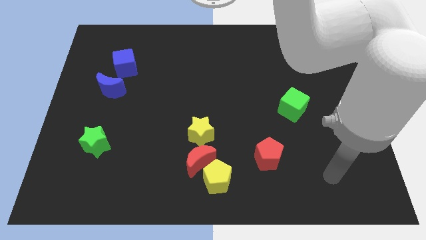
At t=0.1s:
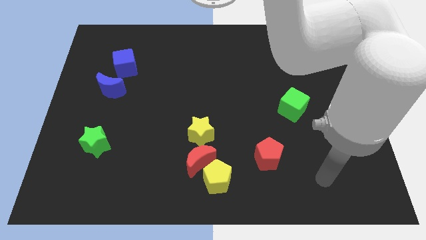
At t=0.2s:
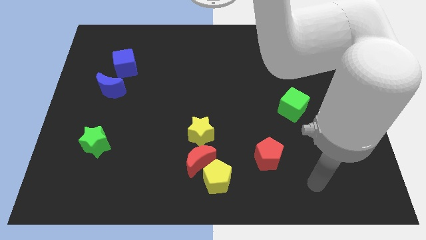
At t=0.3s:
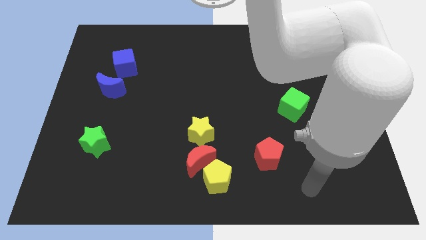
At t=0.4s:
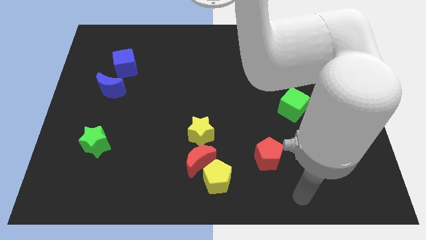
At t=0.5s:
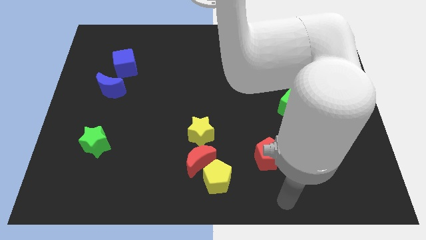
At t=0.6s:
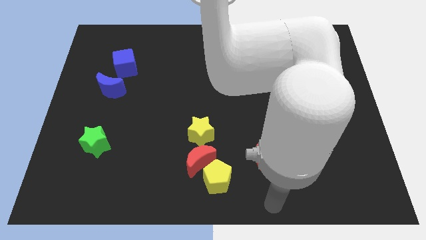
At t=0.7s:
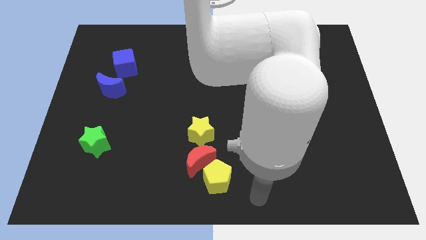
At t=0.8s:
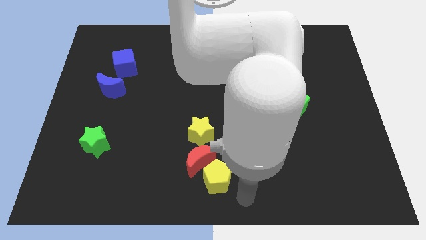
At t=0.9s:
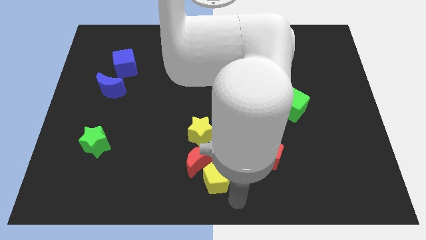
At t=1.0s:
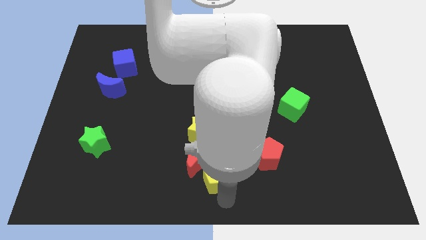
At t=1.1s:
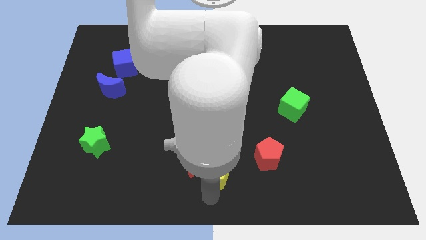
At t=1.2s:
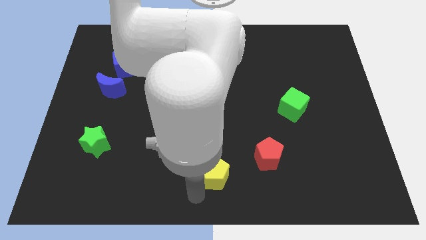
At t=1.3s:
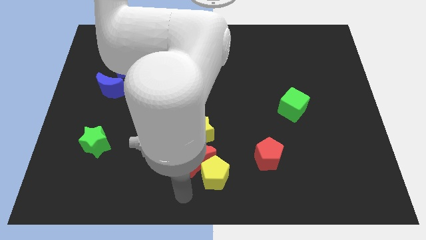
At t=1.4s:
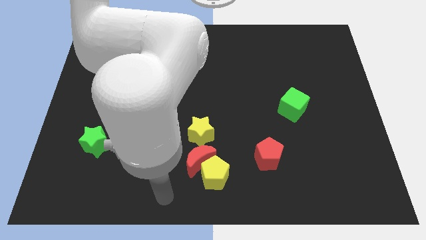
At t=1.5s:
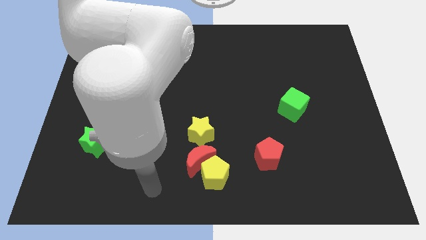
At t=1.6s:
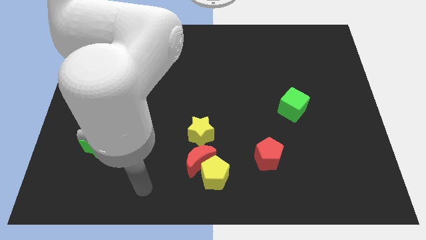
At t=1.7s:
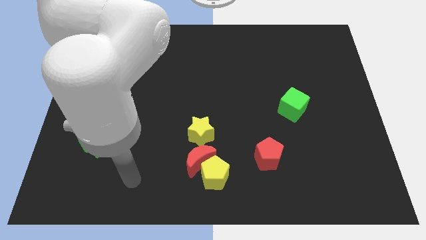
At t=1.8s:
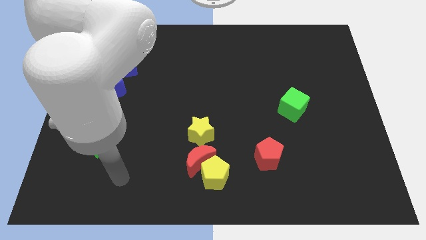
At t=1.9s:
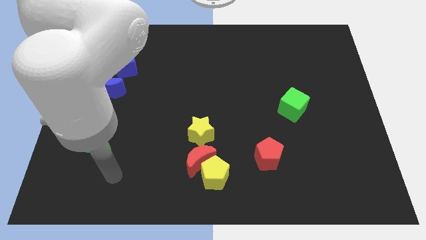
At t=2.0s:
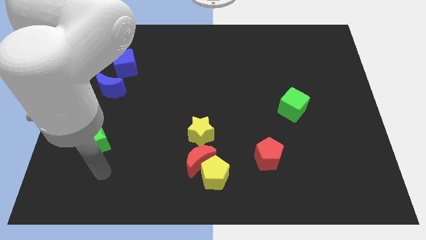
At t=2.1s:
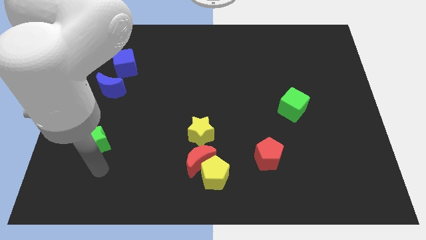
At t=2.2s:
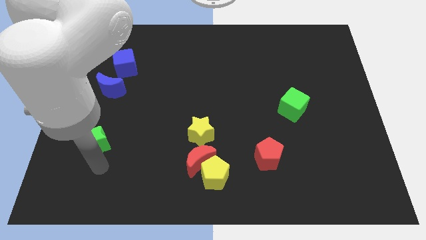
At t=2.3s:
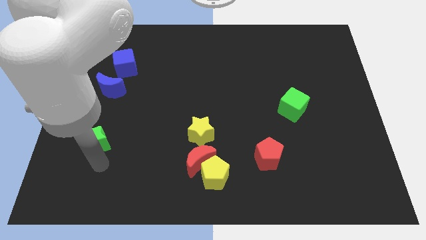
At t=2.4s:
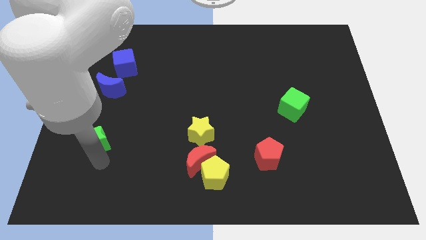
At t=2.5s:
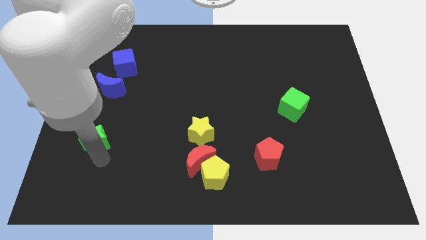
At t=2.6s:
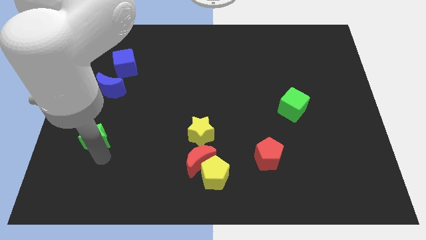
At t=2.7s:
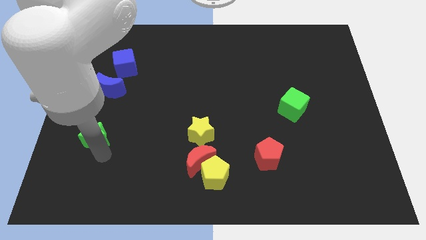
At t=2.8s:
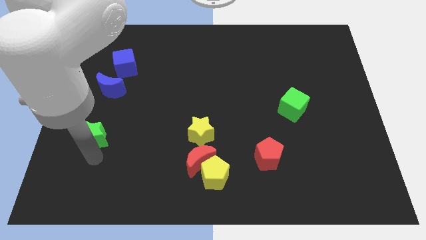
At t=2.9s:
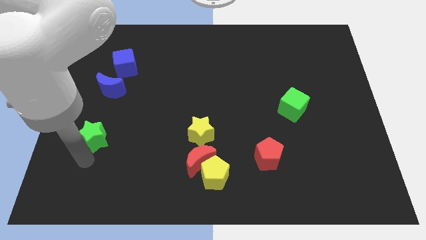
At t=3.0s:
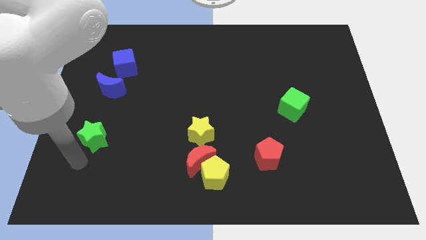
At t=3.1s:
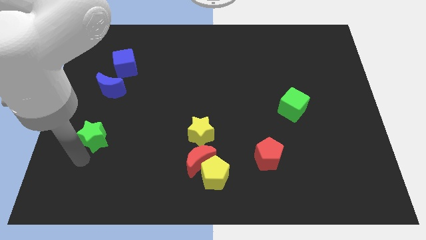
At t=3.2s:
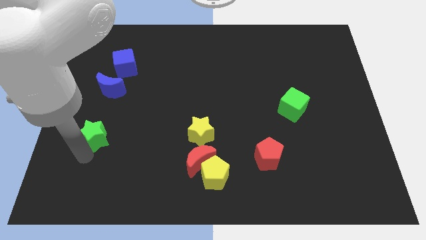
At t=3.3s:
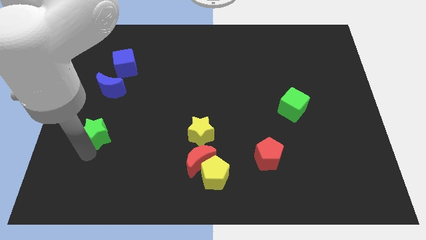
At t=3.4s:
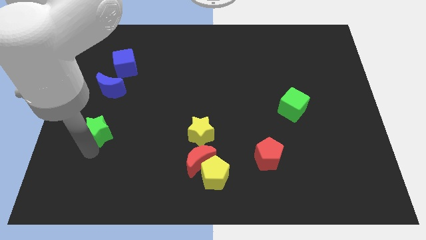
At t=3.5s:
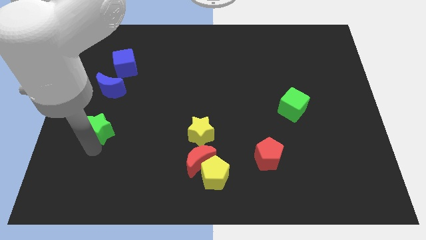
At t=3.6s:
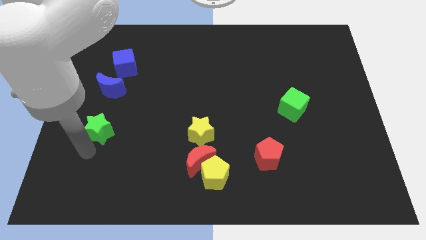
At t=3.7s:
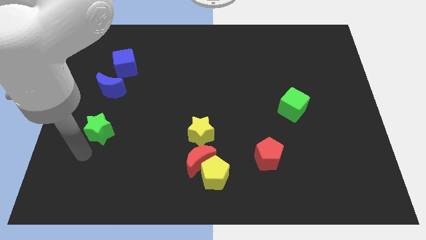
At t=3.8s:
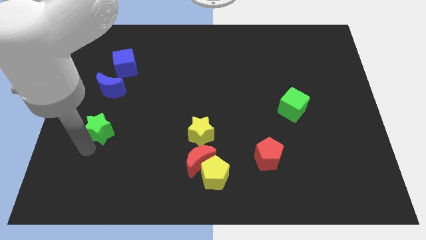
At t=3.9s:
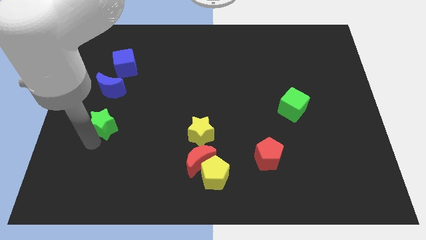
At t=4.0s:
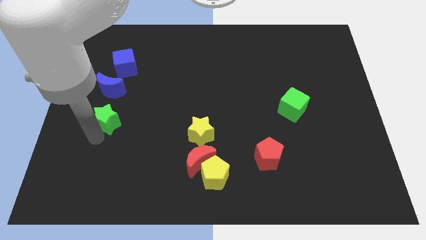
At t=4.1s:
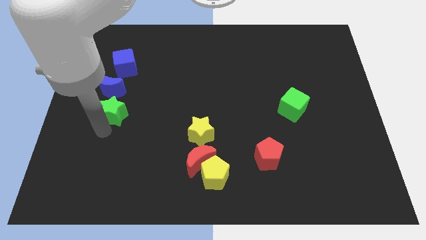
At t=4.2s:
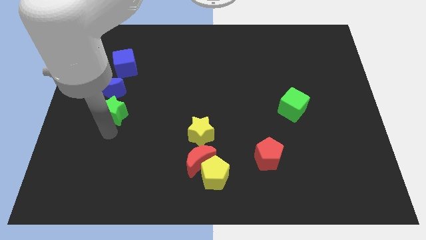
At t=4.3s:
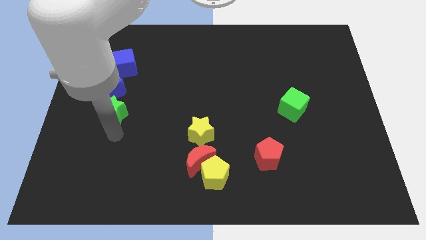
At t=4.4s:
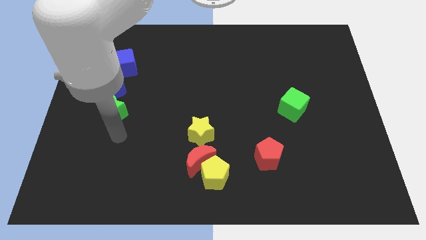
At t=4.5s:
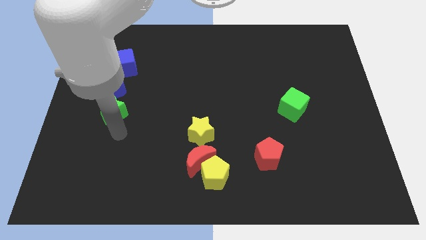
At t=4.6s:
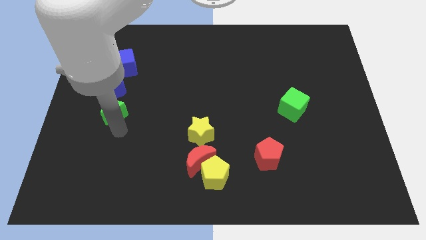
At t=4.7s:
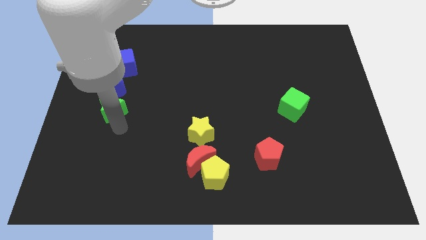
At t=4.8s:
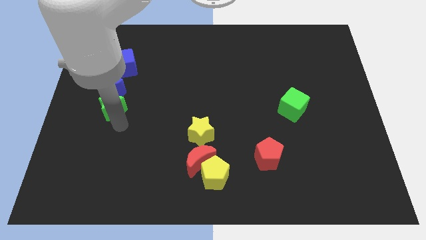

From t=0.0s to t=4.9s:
move the green star next to the blue moon

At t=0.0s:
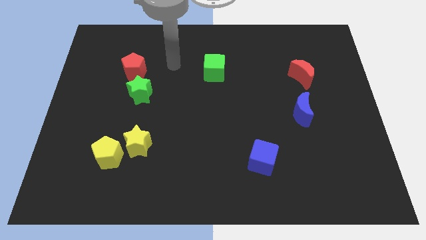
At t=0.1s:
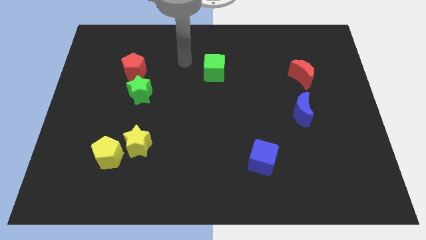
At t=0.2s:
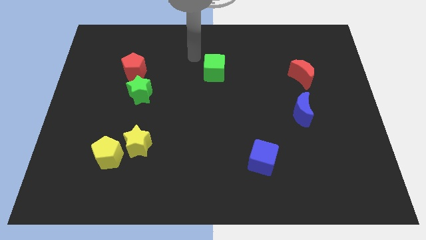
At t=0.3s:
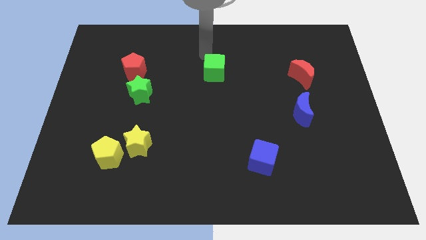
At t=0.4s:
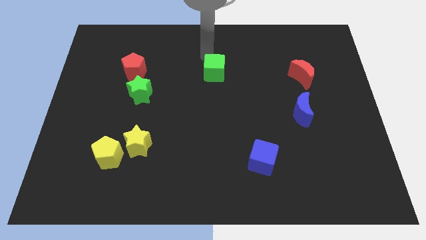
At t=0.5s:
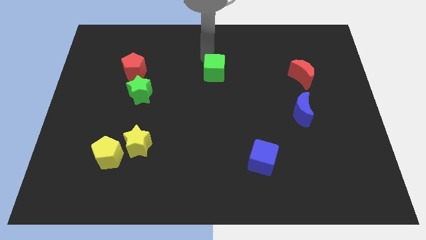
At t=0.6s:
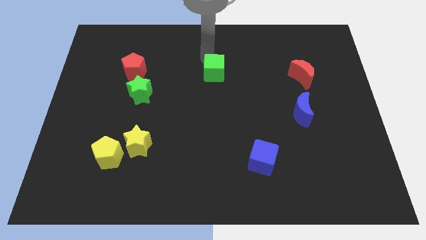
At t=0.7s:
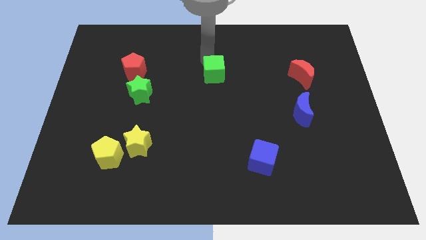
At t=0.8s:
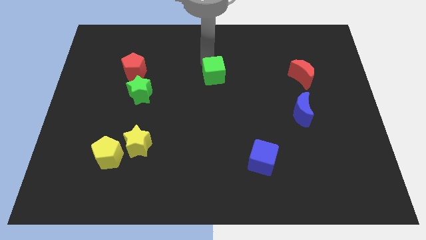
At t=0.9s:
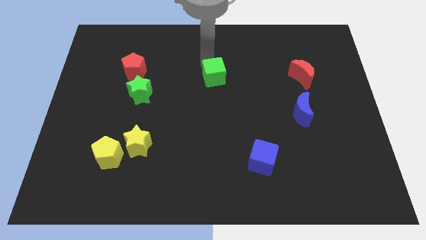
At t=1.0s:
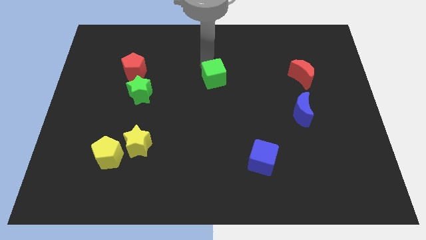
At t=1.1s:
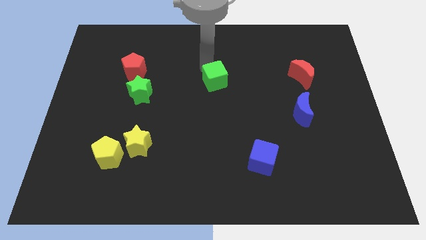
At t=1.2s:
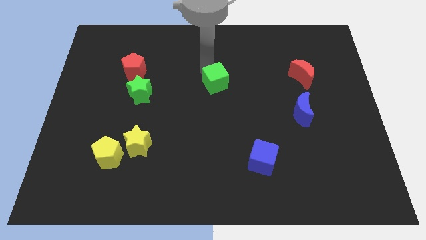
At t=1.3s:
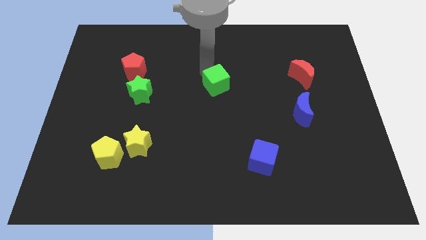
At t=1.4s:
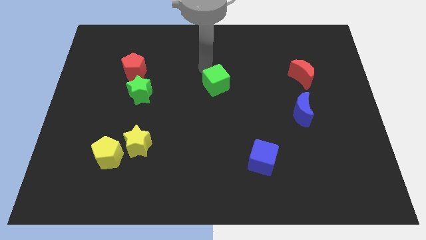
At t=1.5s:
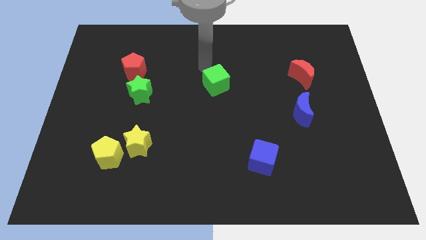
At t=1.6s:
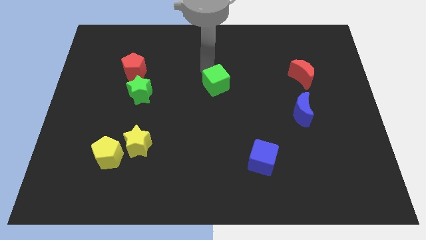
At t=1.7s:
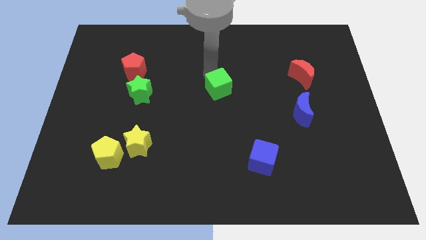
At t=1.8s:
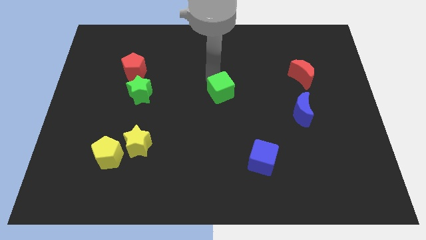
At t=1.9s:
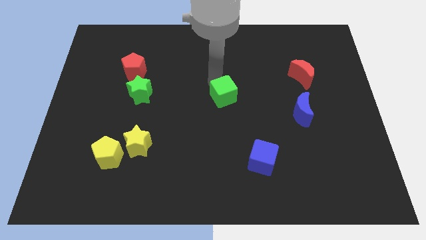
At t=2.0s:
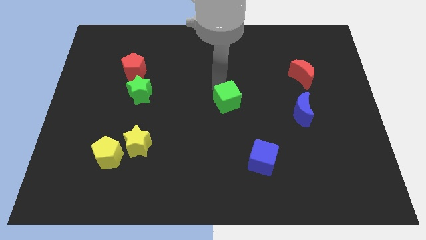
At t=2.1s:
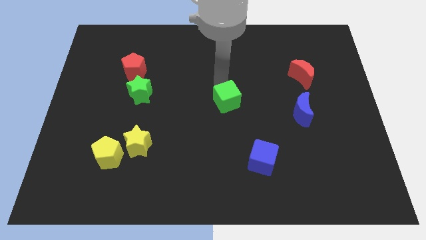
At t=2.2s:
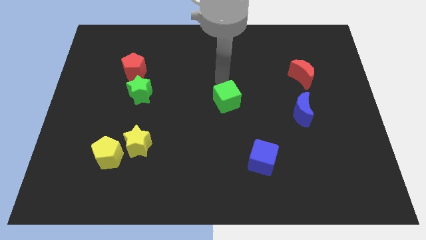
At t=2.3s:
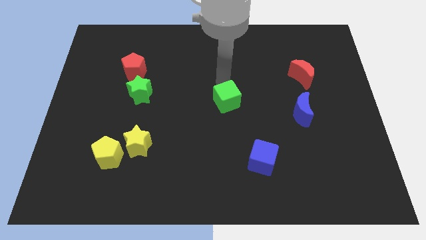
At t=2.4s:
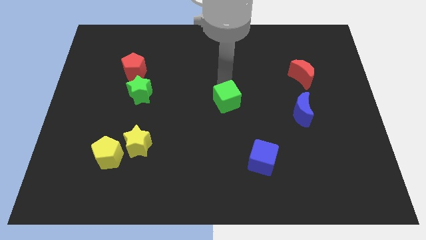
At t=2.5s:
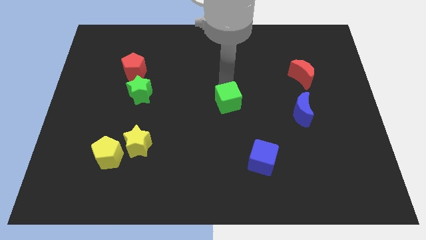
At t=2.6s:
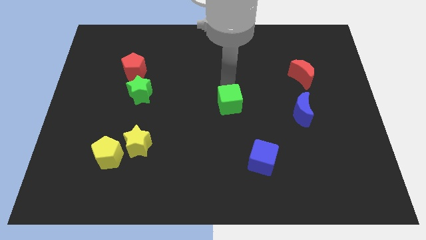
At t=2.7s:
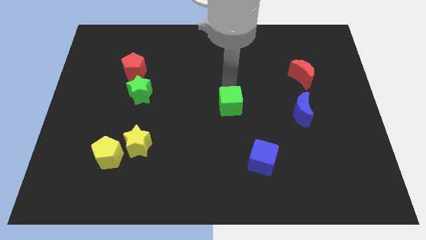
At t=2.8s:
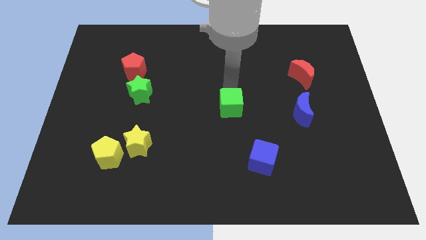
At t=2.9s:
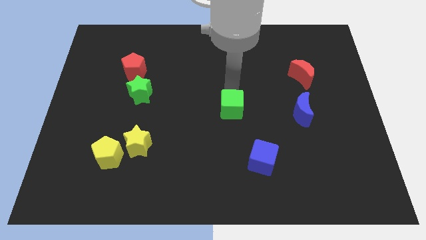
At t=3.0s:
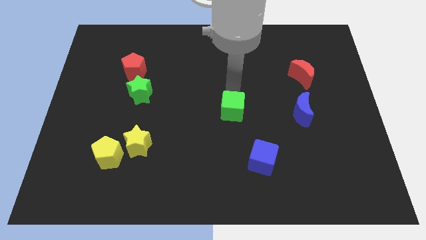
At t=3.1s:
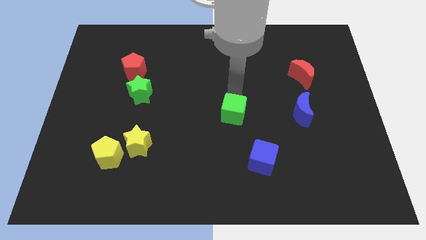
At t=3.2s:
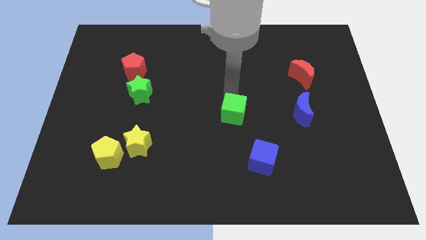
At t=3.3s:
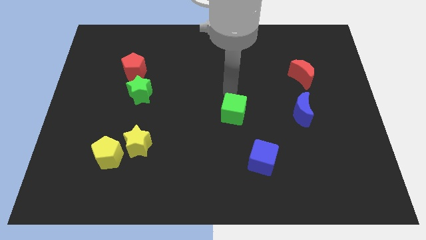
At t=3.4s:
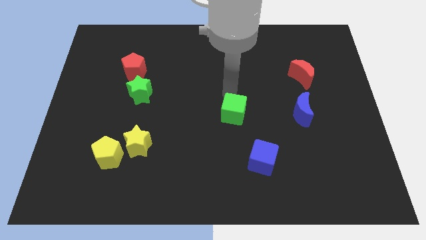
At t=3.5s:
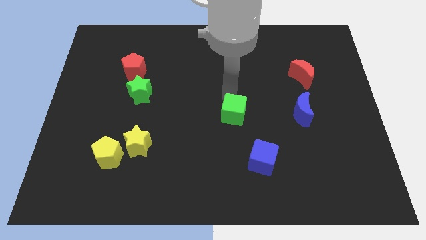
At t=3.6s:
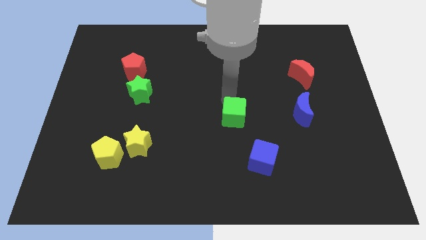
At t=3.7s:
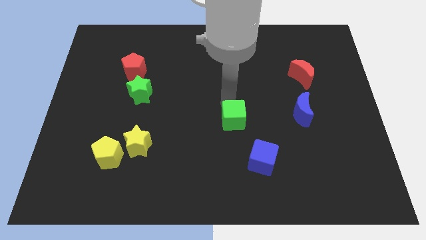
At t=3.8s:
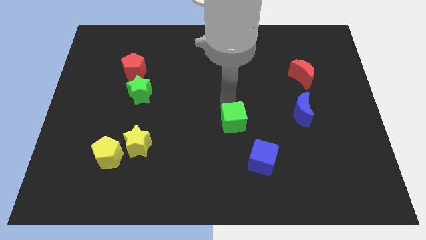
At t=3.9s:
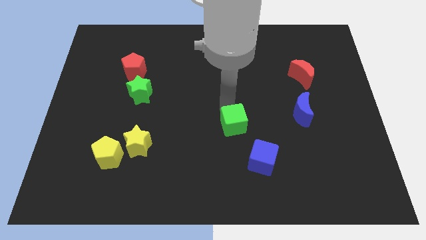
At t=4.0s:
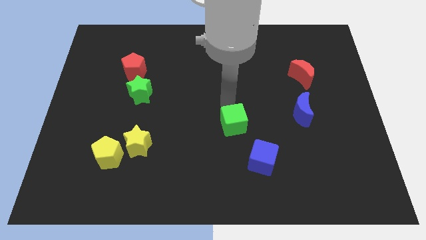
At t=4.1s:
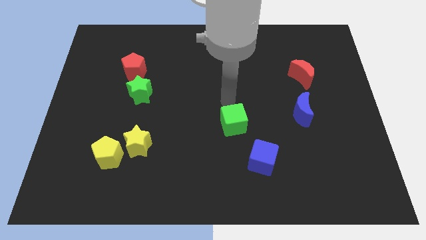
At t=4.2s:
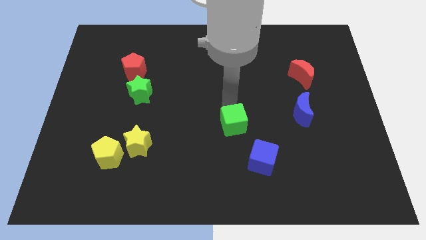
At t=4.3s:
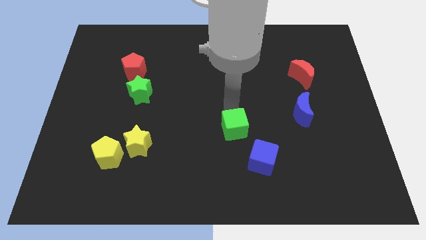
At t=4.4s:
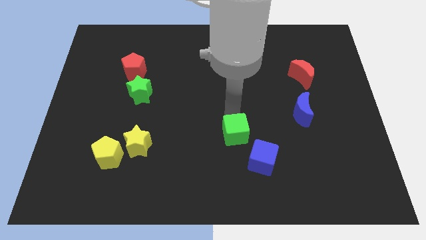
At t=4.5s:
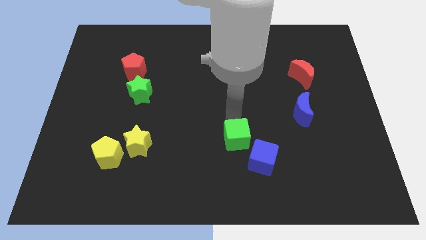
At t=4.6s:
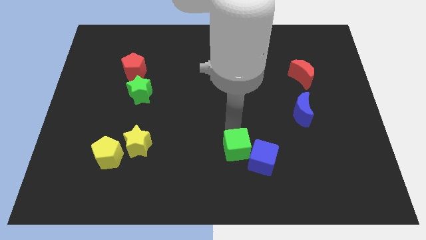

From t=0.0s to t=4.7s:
push the green cube towards the blue cube
